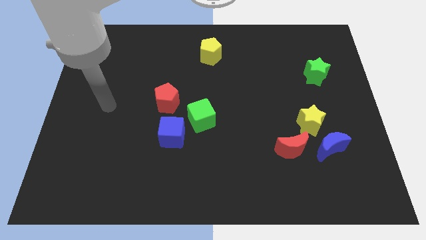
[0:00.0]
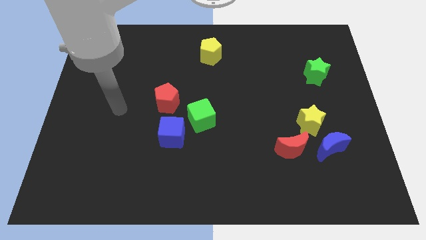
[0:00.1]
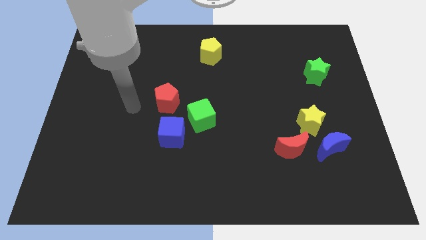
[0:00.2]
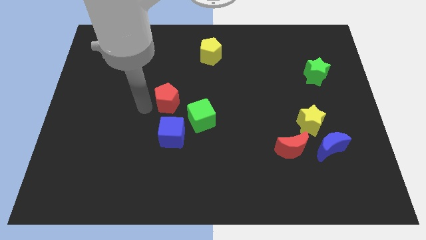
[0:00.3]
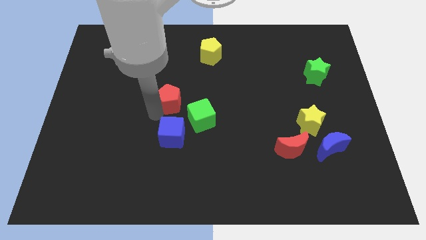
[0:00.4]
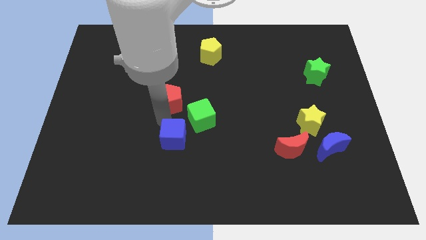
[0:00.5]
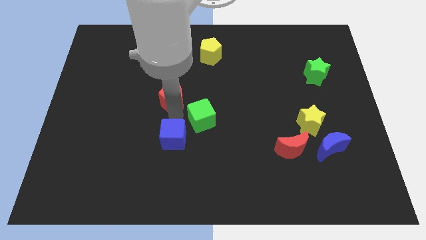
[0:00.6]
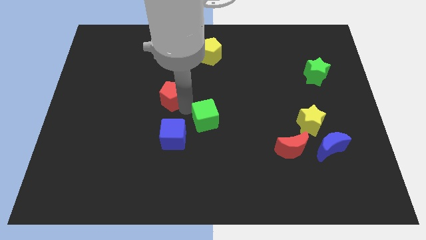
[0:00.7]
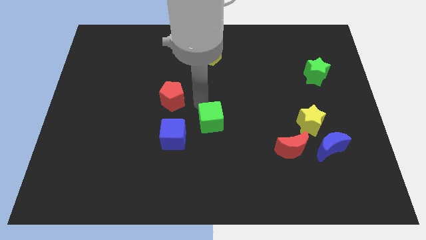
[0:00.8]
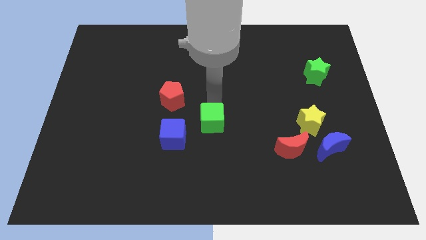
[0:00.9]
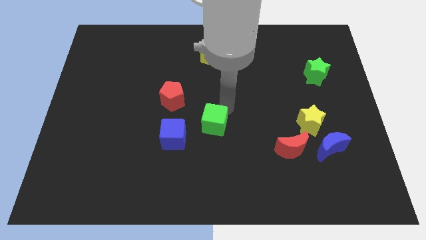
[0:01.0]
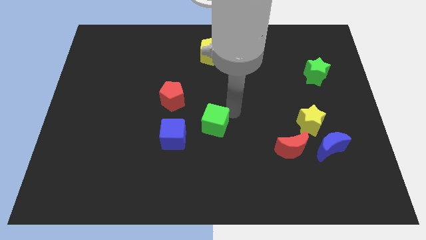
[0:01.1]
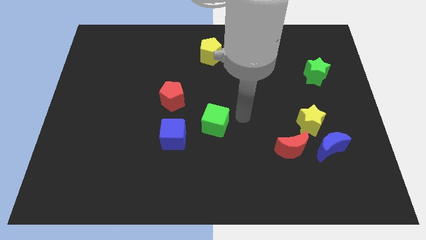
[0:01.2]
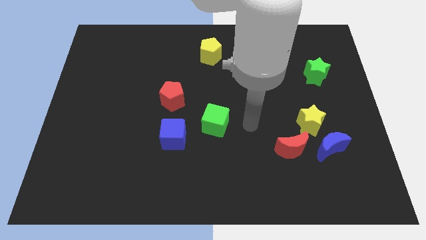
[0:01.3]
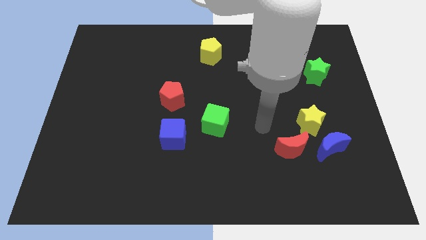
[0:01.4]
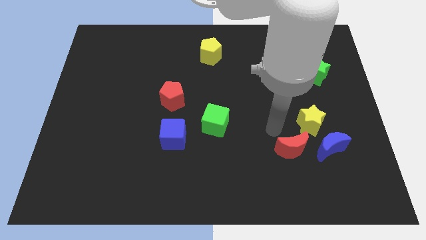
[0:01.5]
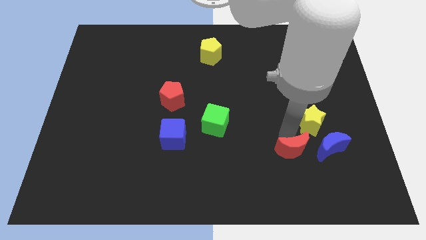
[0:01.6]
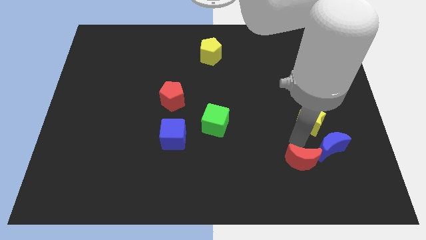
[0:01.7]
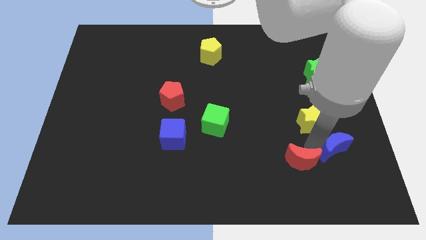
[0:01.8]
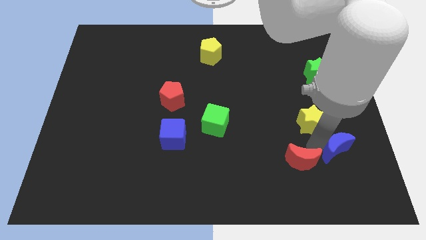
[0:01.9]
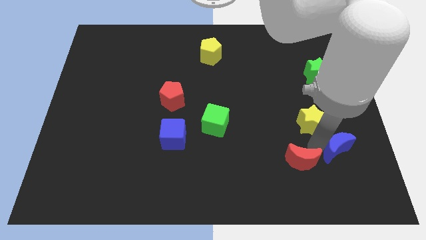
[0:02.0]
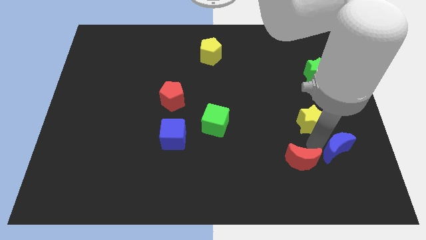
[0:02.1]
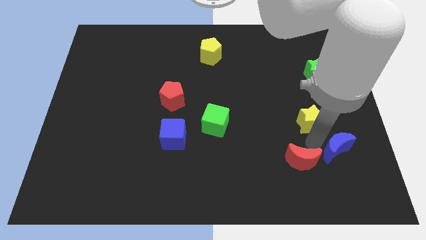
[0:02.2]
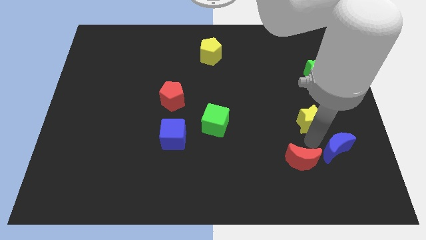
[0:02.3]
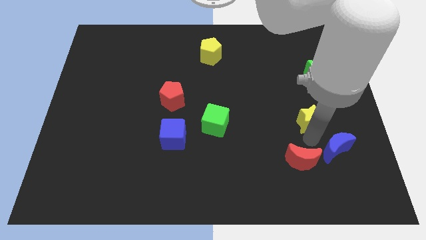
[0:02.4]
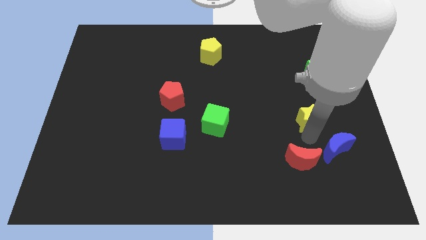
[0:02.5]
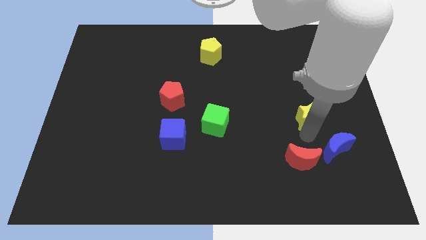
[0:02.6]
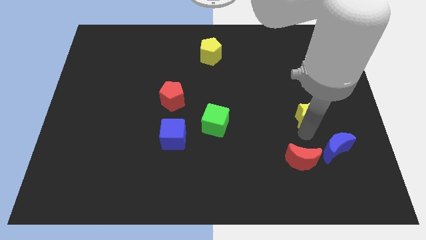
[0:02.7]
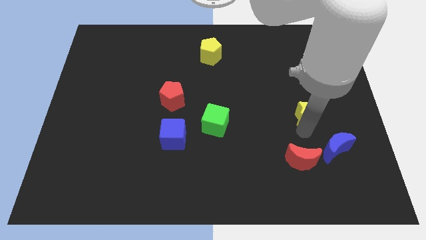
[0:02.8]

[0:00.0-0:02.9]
separate the yellow star from the blue moon and red moon

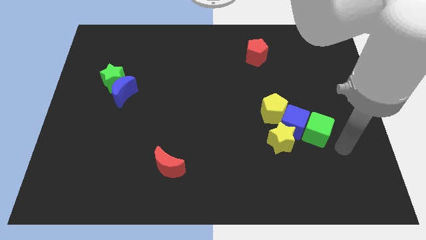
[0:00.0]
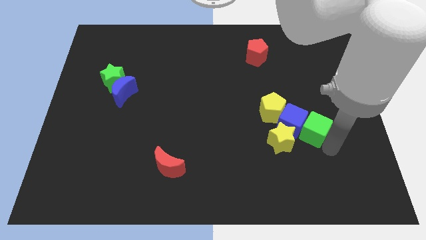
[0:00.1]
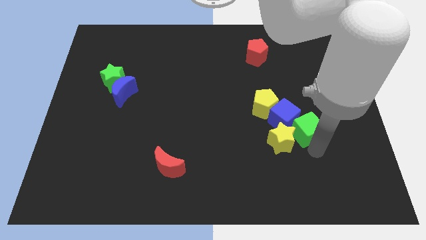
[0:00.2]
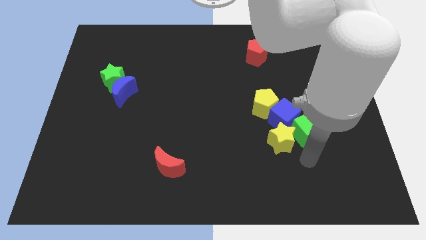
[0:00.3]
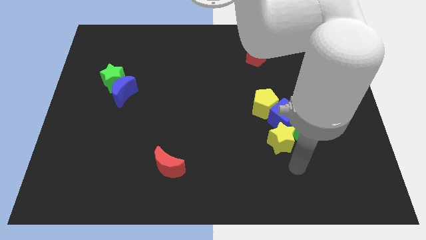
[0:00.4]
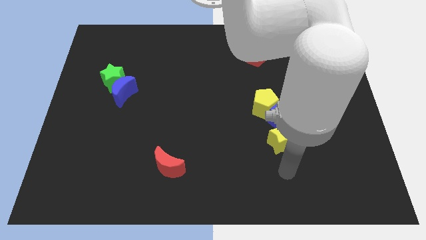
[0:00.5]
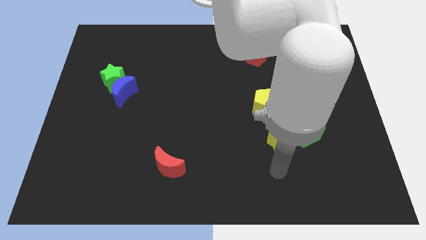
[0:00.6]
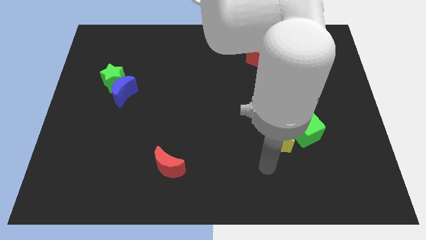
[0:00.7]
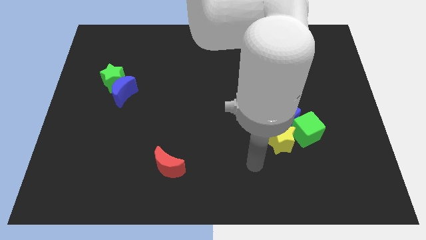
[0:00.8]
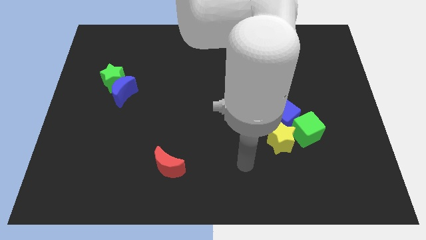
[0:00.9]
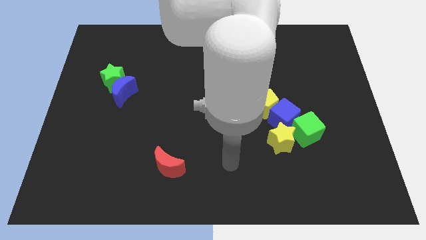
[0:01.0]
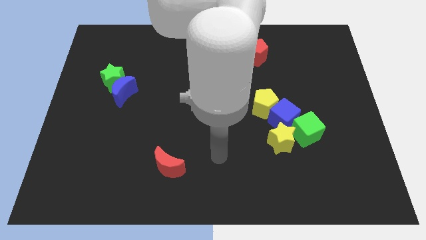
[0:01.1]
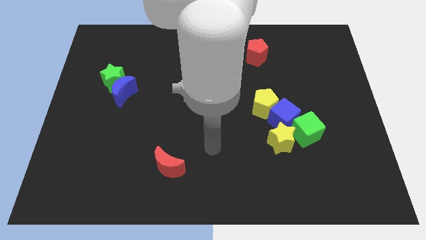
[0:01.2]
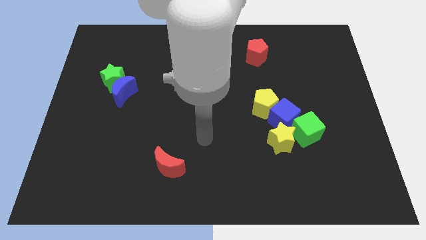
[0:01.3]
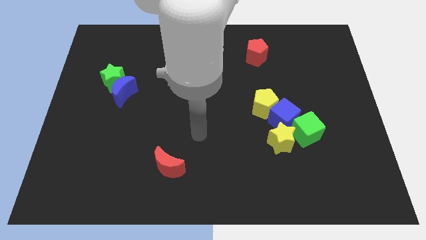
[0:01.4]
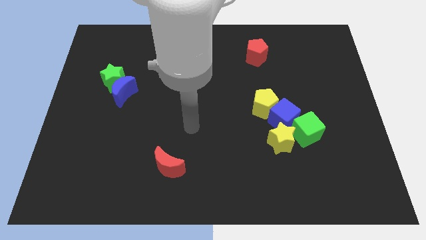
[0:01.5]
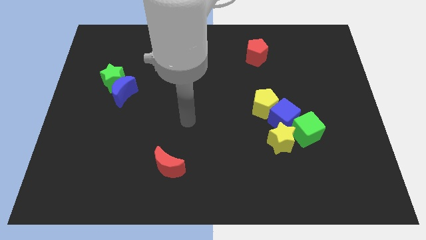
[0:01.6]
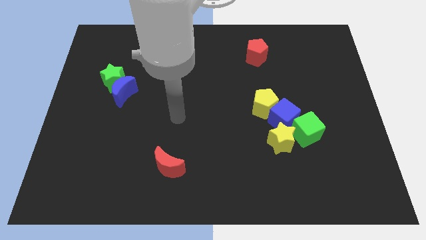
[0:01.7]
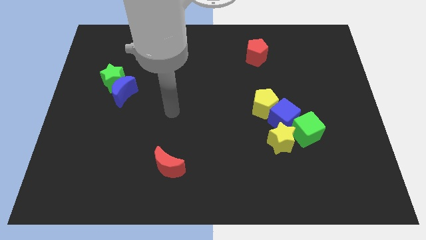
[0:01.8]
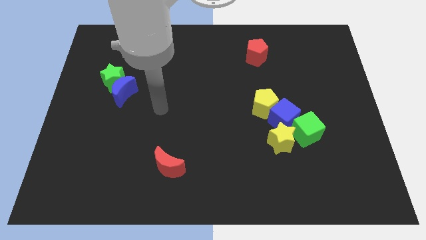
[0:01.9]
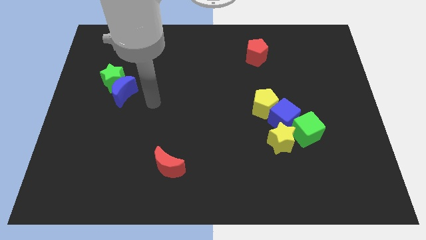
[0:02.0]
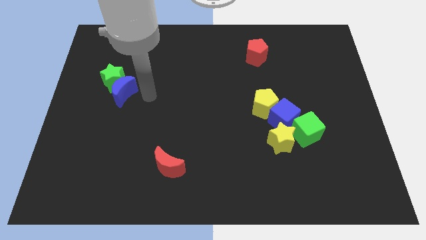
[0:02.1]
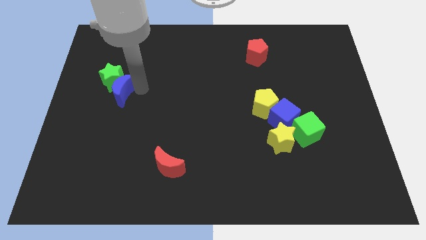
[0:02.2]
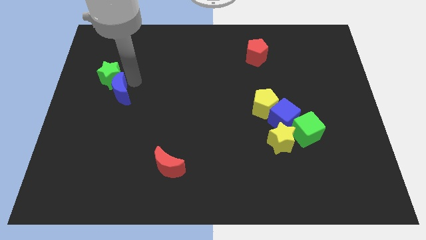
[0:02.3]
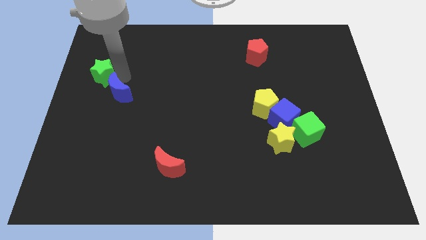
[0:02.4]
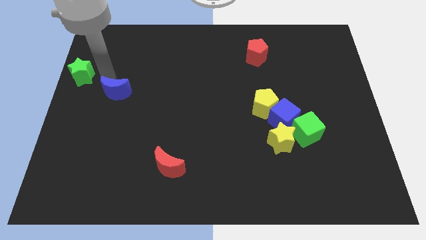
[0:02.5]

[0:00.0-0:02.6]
separate the blue moon from the green star

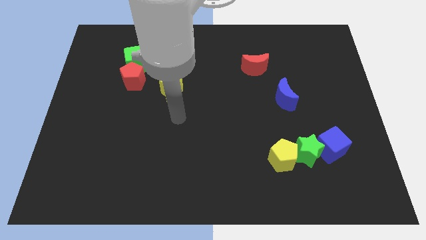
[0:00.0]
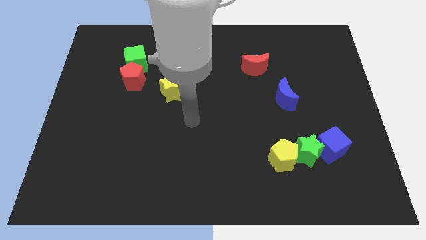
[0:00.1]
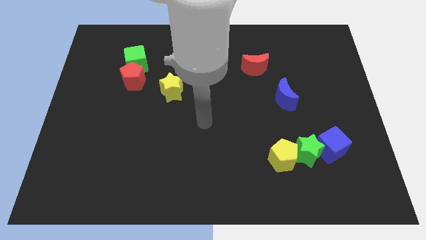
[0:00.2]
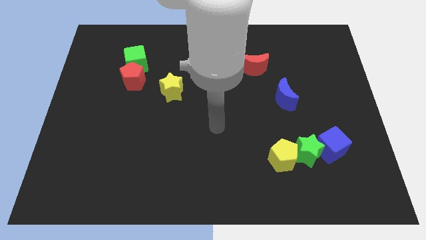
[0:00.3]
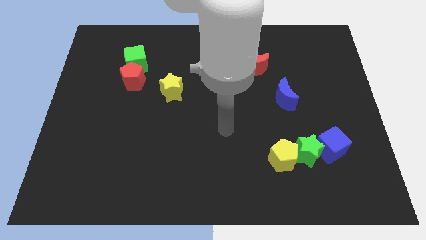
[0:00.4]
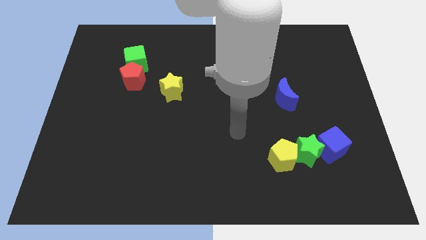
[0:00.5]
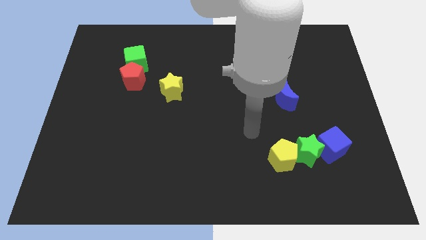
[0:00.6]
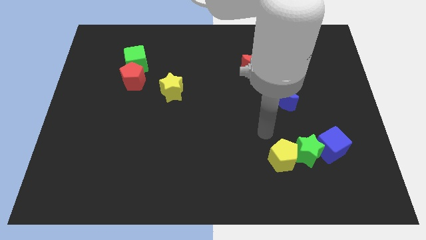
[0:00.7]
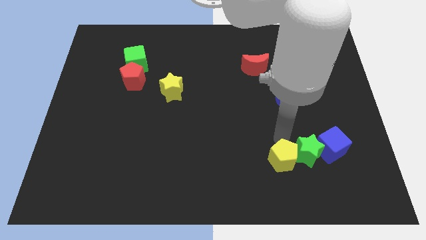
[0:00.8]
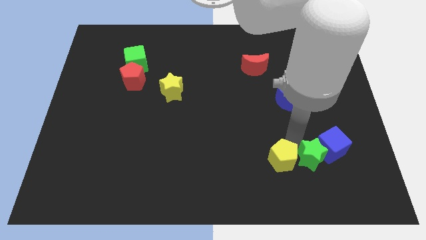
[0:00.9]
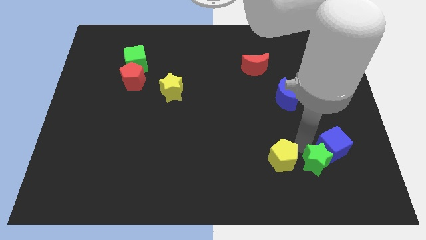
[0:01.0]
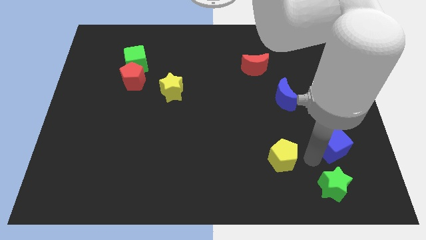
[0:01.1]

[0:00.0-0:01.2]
pull the yellow pentagon apart from the green star

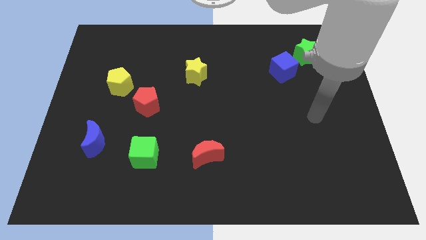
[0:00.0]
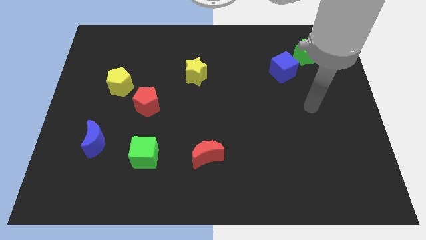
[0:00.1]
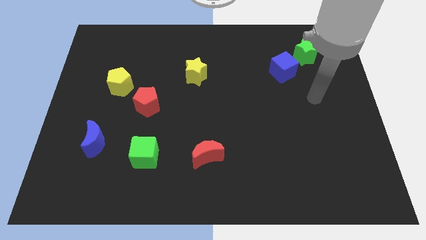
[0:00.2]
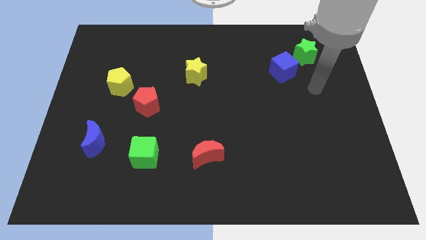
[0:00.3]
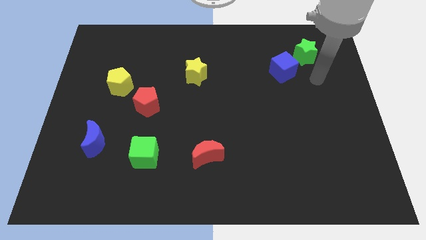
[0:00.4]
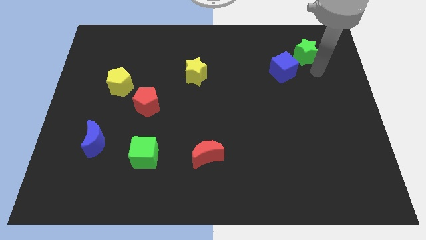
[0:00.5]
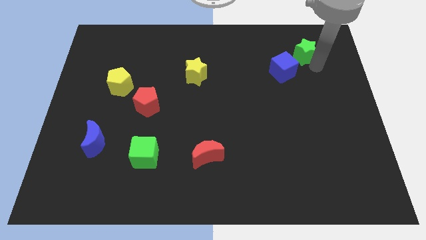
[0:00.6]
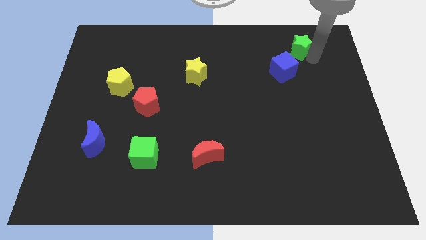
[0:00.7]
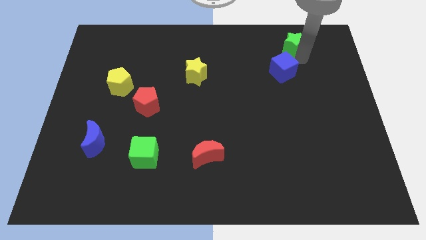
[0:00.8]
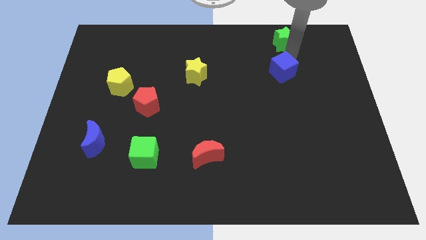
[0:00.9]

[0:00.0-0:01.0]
move the blue cube away from the green star

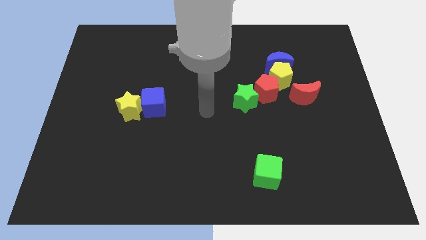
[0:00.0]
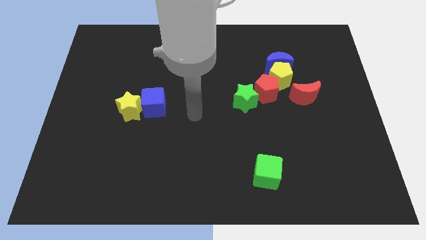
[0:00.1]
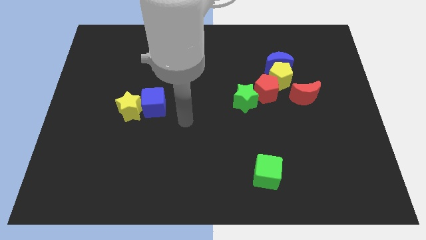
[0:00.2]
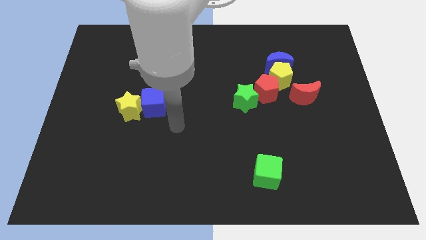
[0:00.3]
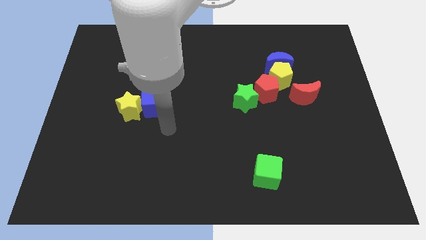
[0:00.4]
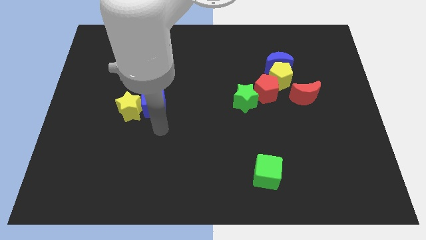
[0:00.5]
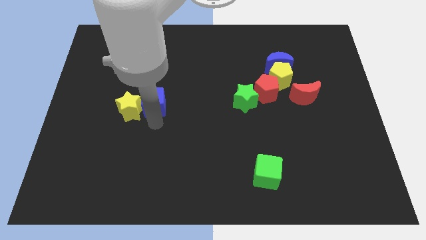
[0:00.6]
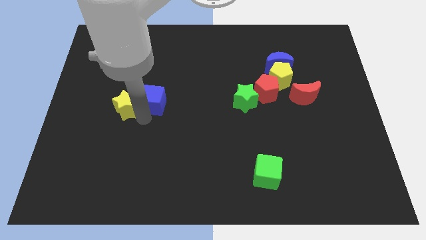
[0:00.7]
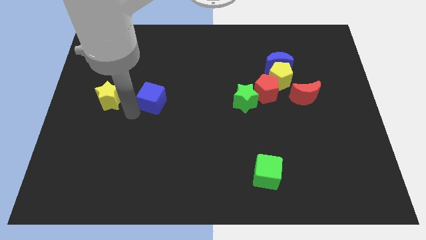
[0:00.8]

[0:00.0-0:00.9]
pull the blue cube apart from the yellow star

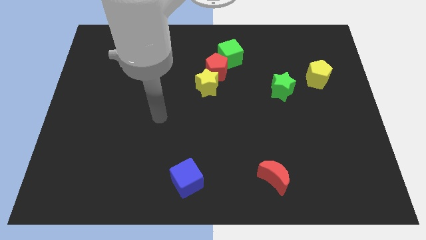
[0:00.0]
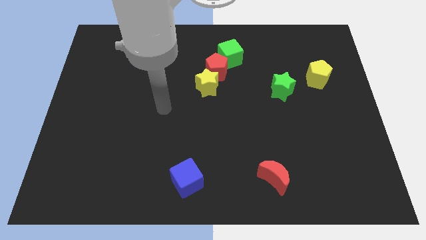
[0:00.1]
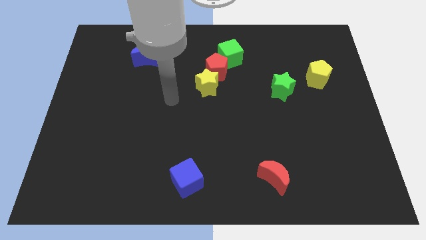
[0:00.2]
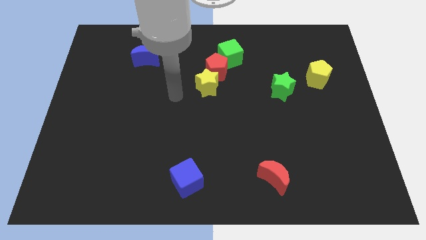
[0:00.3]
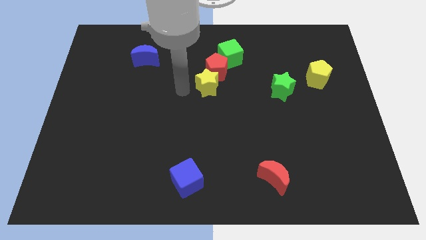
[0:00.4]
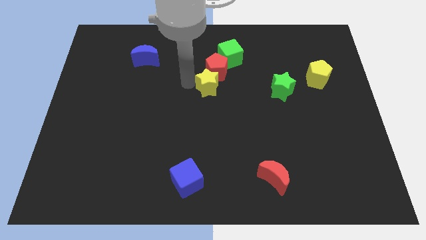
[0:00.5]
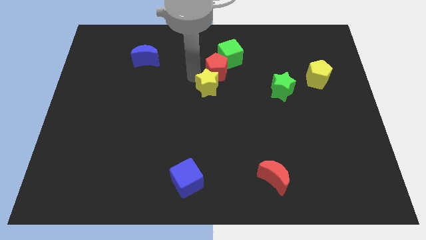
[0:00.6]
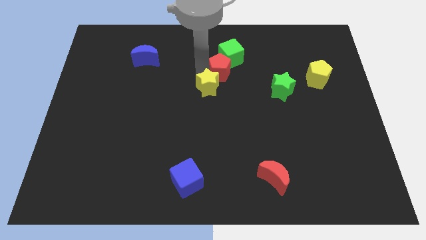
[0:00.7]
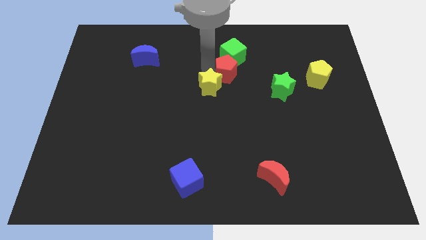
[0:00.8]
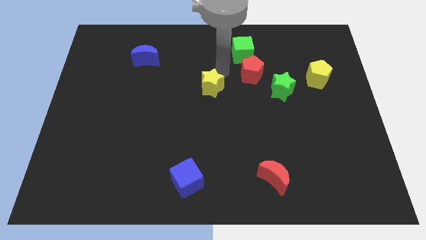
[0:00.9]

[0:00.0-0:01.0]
move the yellow star away from the red pentagon
